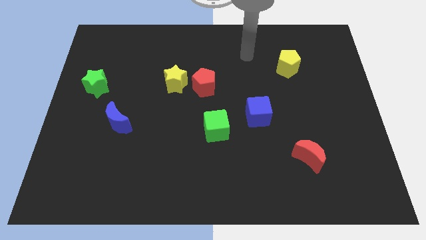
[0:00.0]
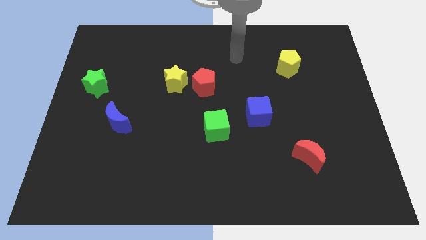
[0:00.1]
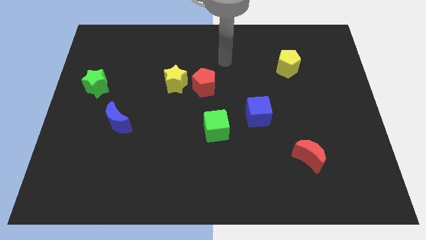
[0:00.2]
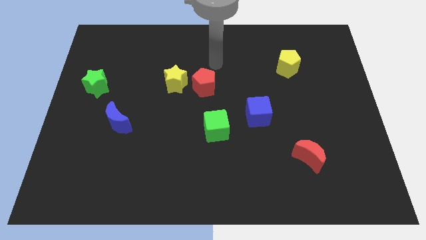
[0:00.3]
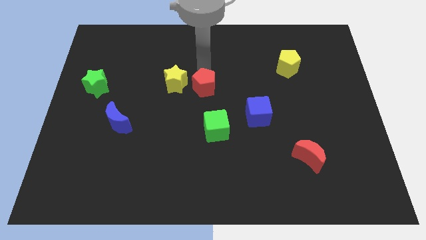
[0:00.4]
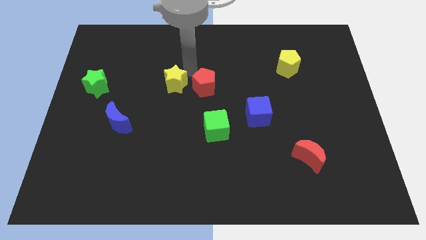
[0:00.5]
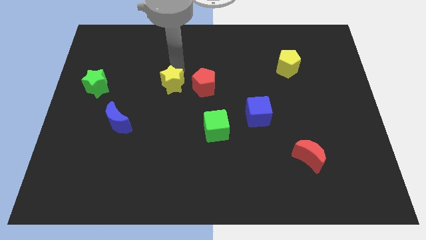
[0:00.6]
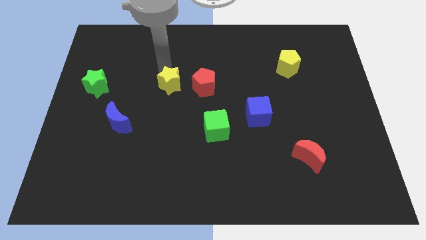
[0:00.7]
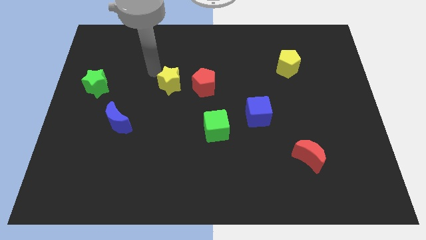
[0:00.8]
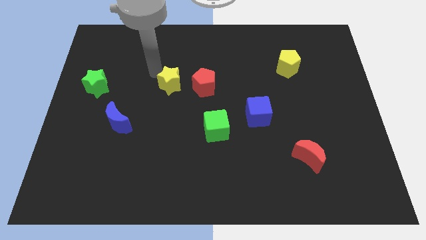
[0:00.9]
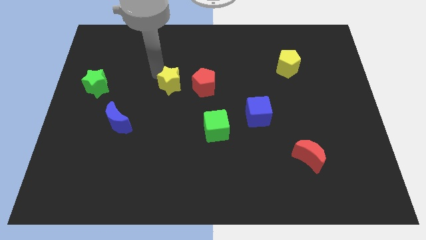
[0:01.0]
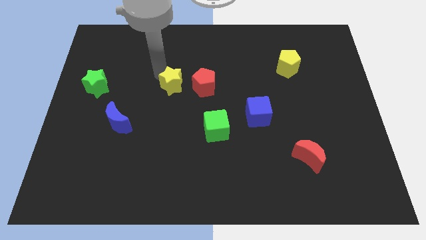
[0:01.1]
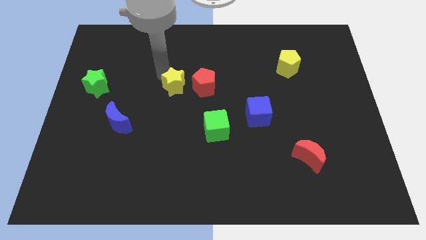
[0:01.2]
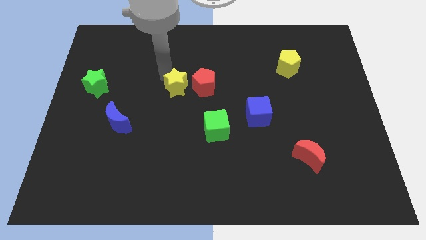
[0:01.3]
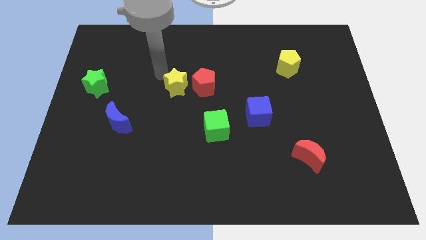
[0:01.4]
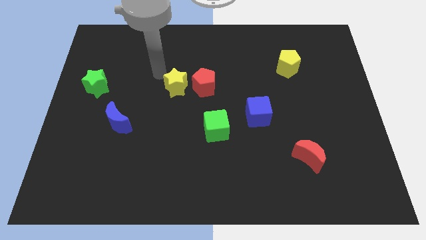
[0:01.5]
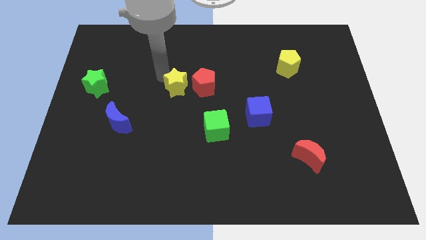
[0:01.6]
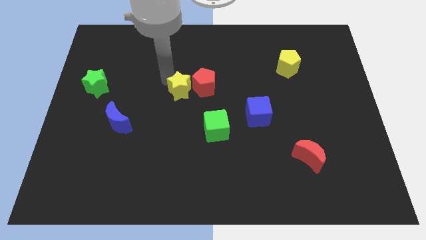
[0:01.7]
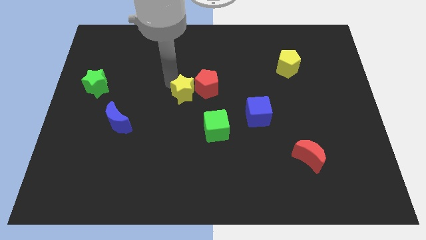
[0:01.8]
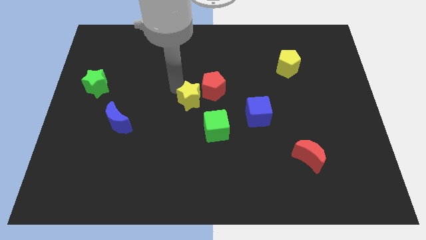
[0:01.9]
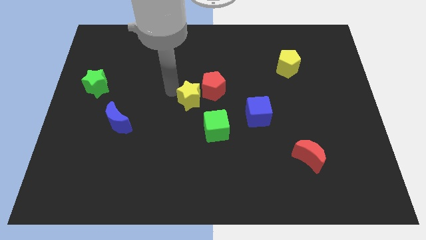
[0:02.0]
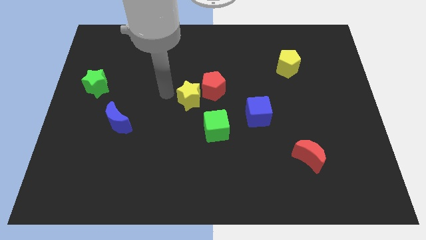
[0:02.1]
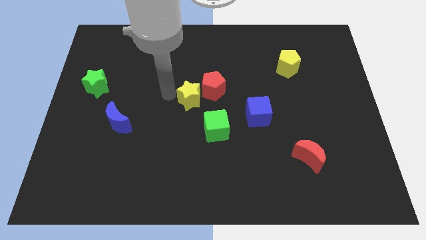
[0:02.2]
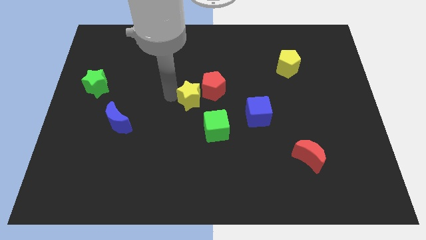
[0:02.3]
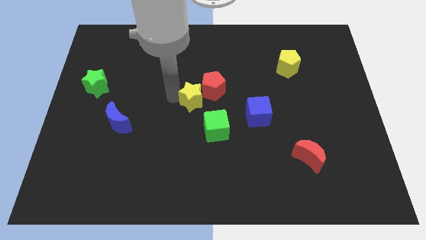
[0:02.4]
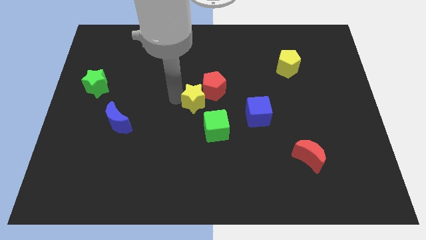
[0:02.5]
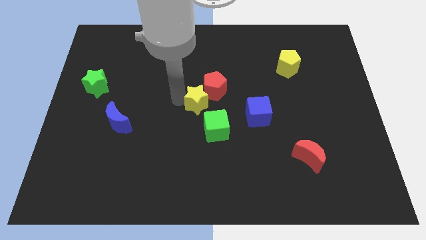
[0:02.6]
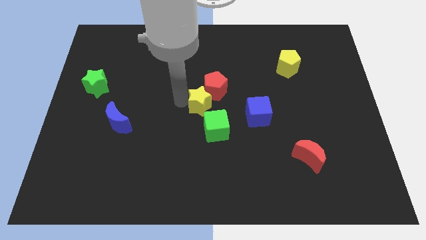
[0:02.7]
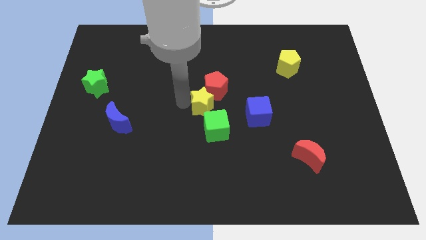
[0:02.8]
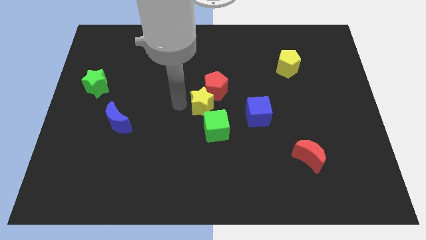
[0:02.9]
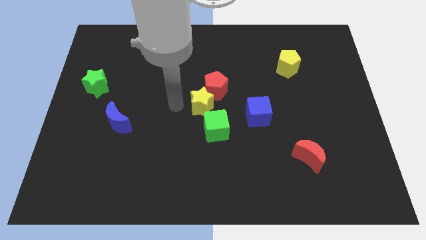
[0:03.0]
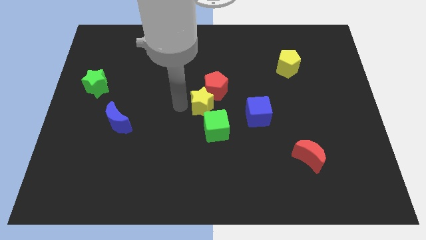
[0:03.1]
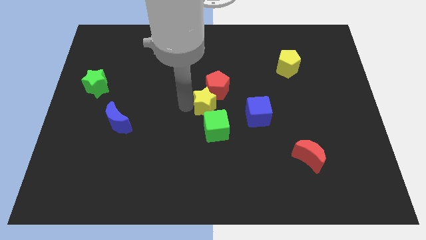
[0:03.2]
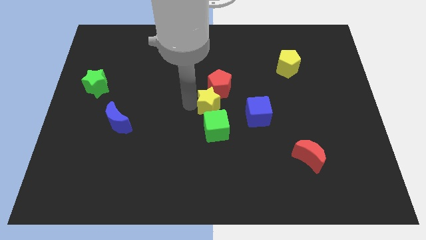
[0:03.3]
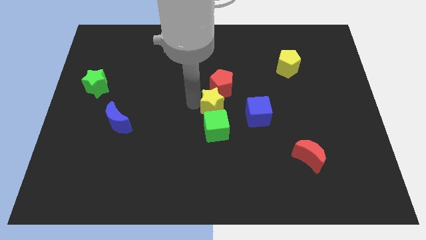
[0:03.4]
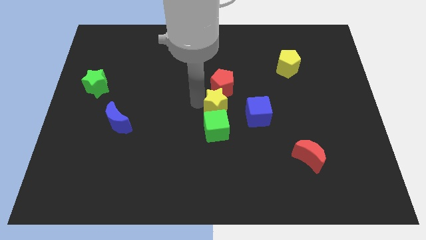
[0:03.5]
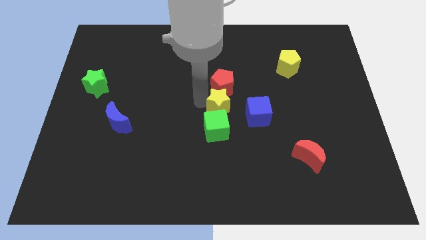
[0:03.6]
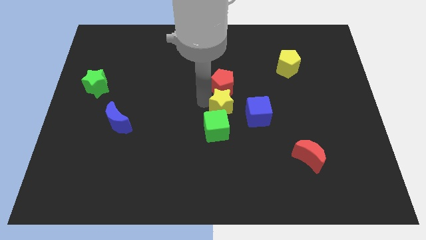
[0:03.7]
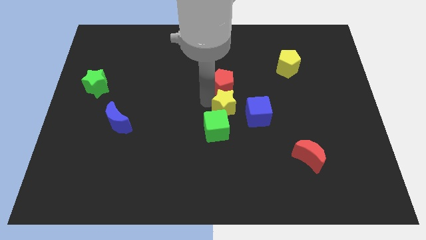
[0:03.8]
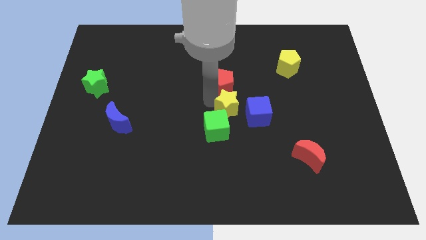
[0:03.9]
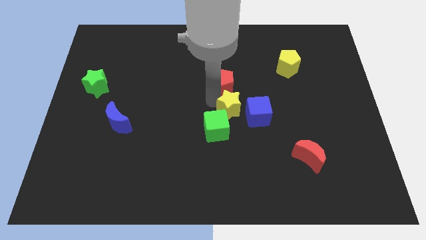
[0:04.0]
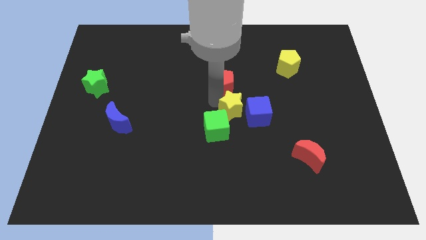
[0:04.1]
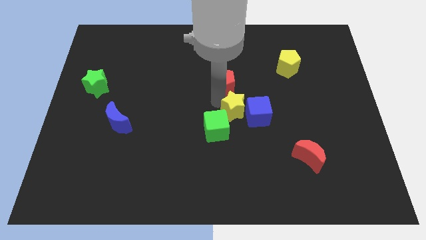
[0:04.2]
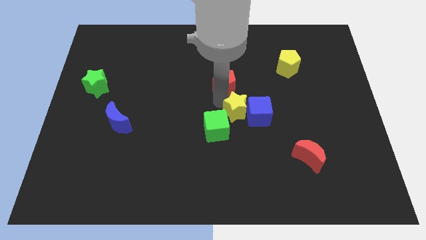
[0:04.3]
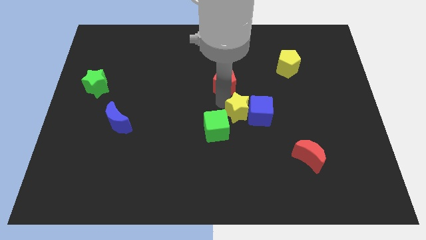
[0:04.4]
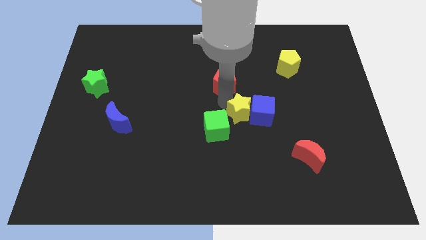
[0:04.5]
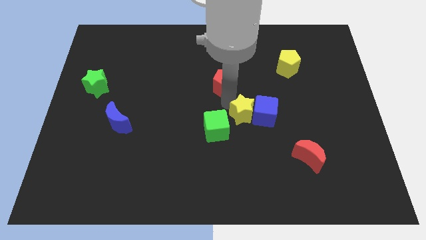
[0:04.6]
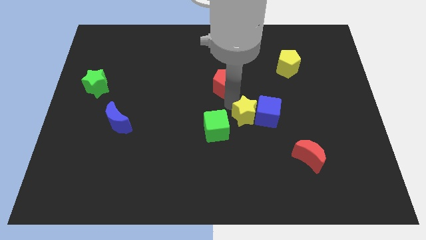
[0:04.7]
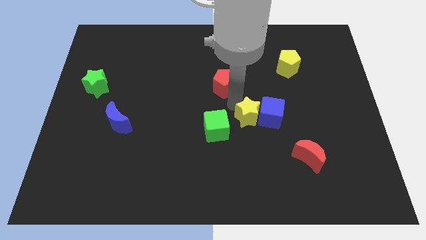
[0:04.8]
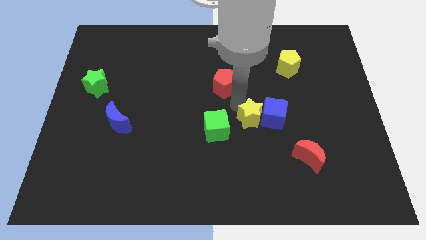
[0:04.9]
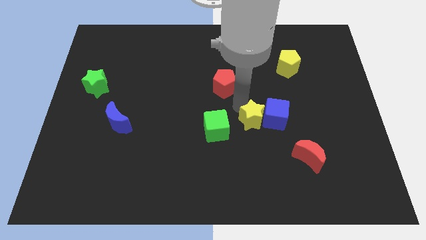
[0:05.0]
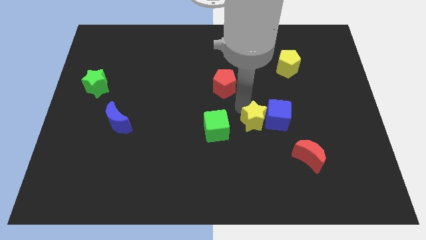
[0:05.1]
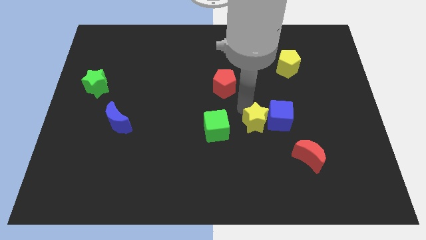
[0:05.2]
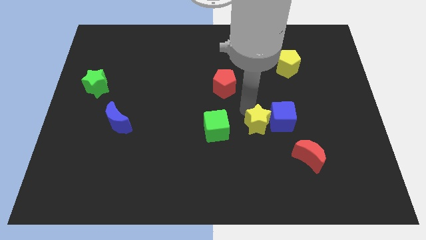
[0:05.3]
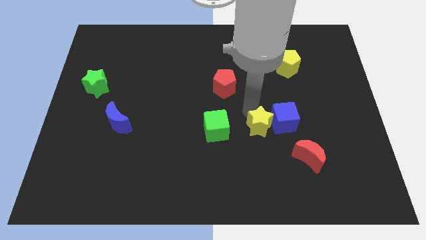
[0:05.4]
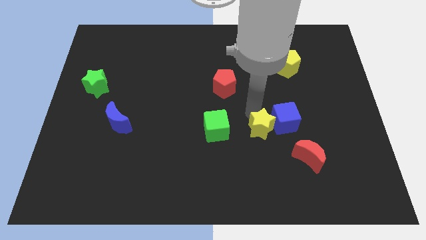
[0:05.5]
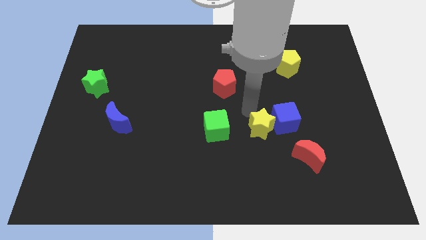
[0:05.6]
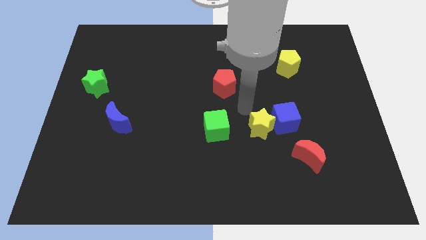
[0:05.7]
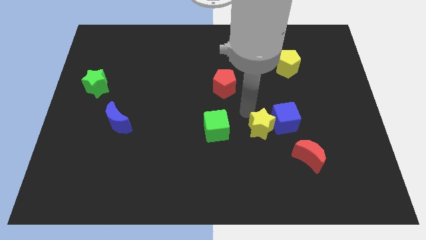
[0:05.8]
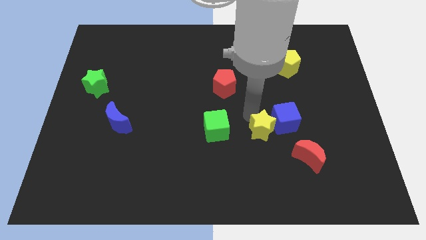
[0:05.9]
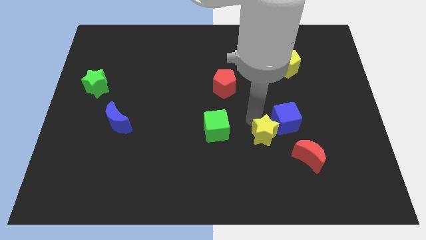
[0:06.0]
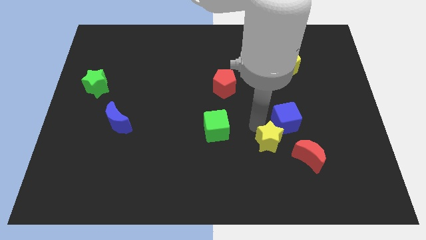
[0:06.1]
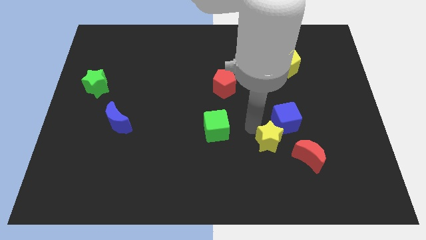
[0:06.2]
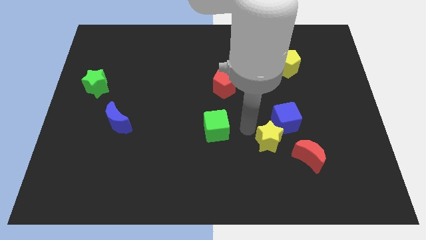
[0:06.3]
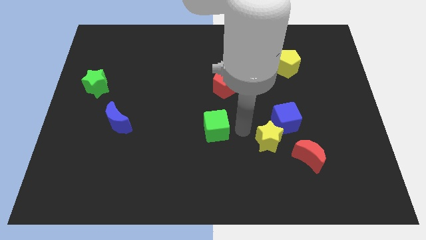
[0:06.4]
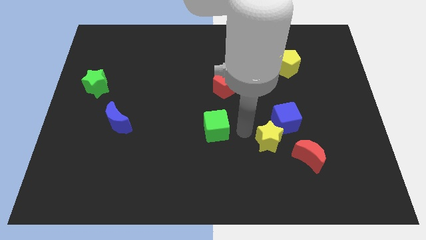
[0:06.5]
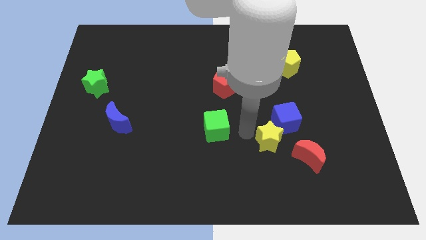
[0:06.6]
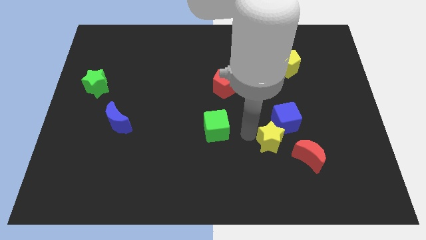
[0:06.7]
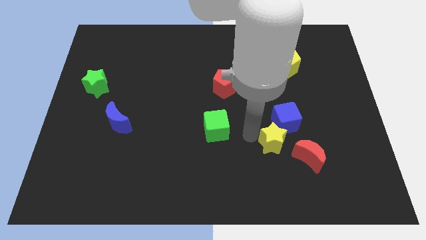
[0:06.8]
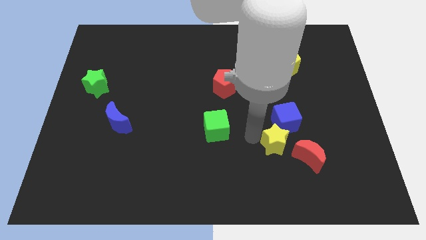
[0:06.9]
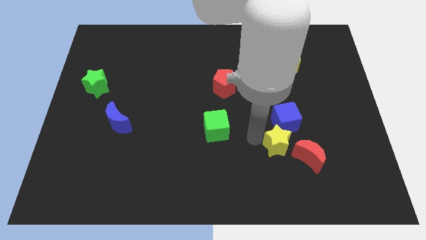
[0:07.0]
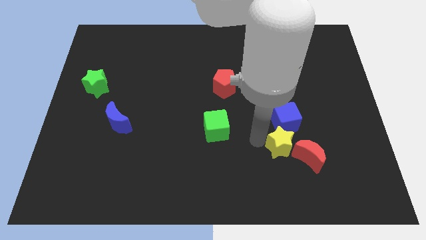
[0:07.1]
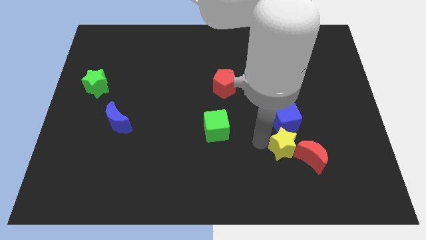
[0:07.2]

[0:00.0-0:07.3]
slide the yellow star towards the red moon
